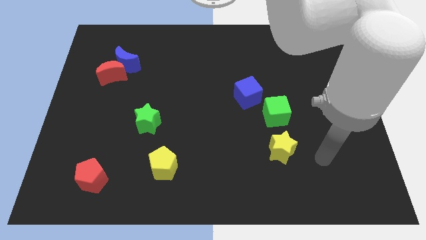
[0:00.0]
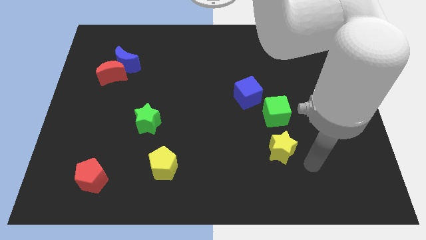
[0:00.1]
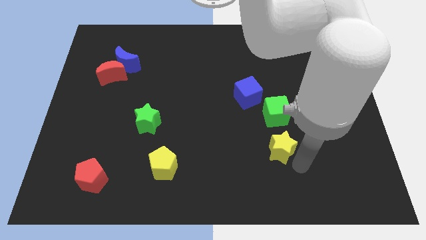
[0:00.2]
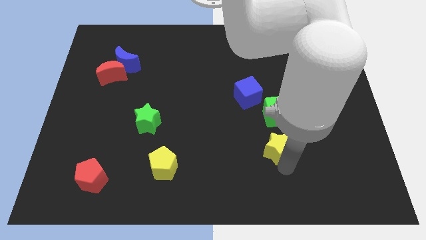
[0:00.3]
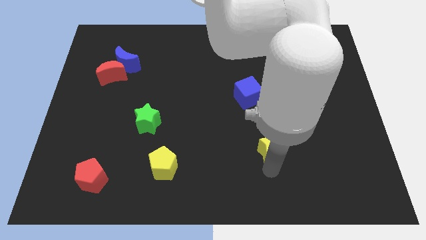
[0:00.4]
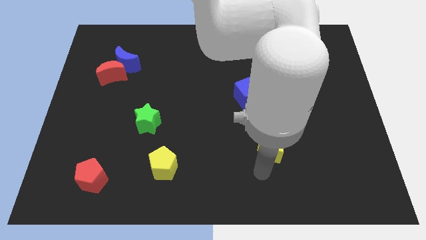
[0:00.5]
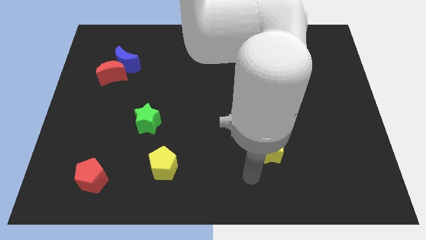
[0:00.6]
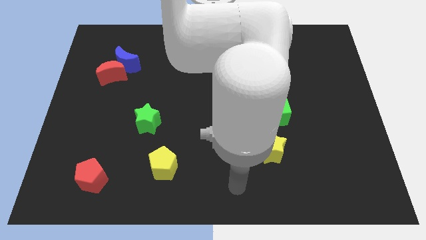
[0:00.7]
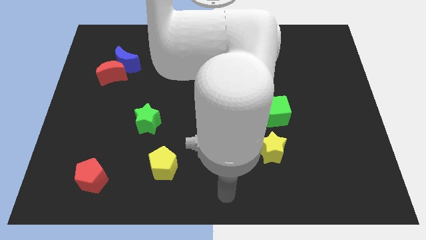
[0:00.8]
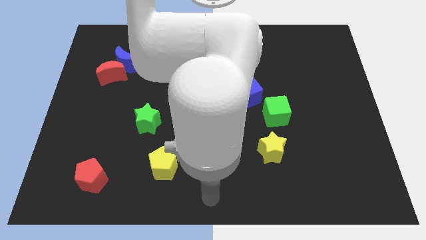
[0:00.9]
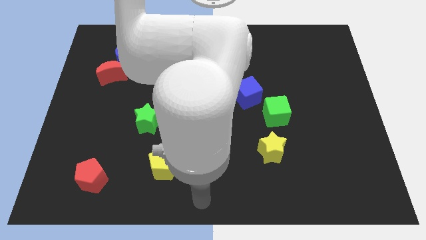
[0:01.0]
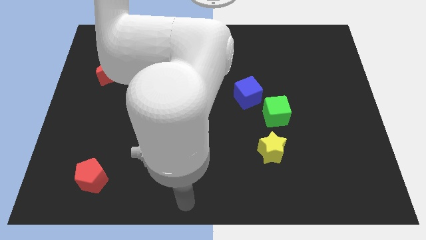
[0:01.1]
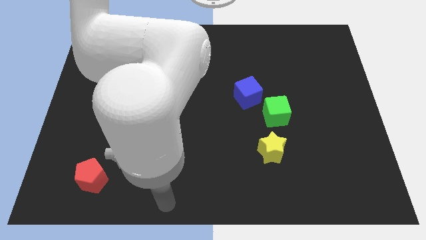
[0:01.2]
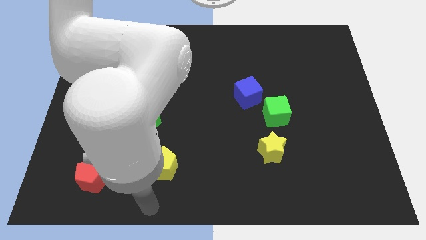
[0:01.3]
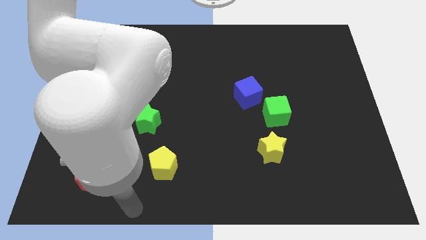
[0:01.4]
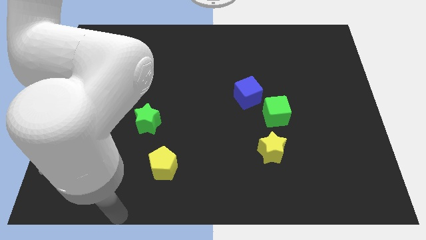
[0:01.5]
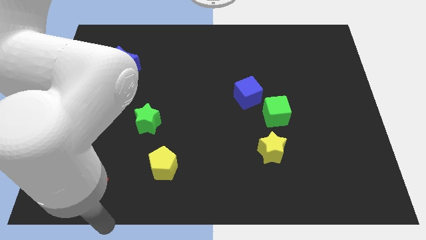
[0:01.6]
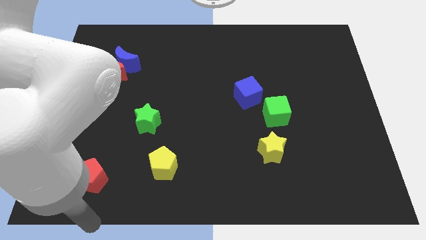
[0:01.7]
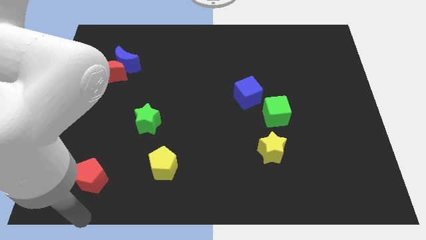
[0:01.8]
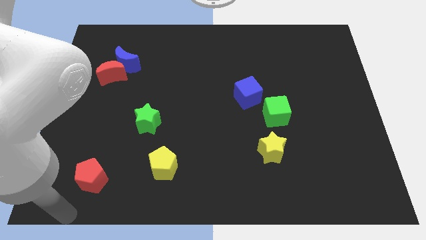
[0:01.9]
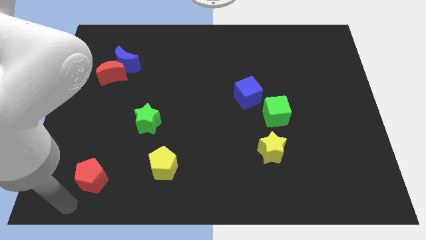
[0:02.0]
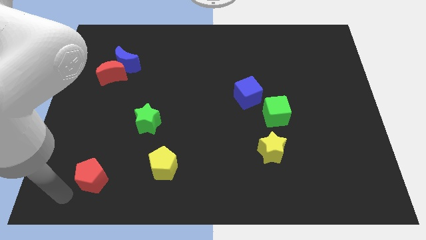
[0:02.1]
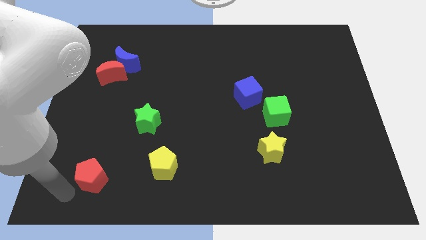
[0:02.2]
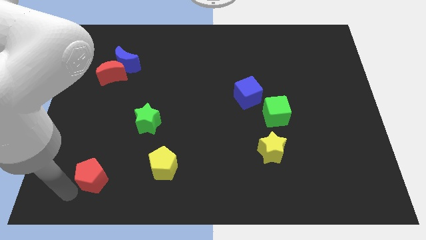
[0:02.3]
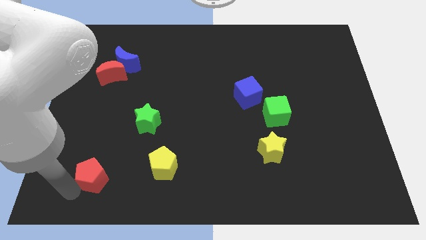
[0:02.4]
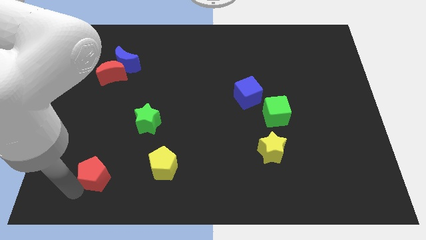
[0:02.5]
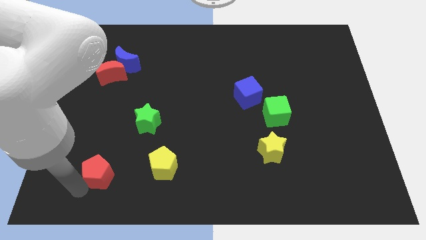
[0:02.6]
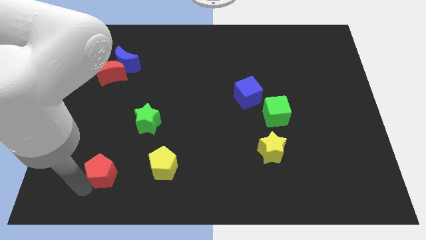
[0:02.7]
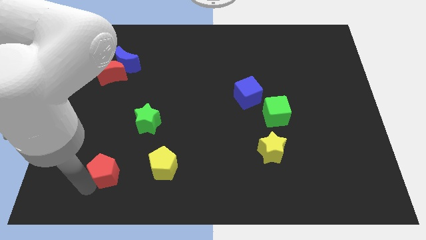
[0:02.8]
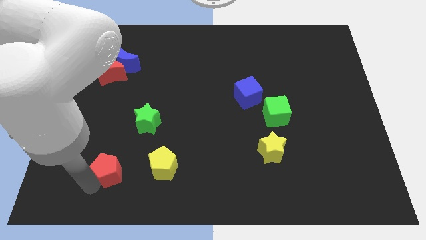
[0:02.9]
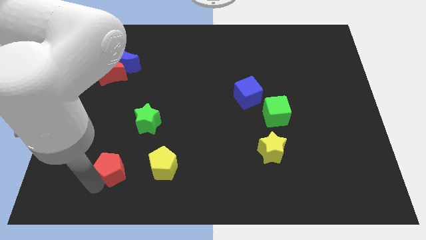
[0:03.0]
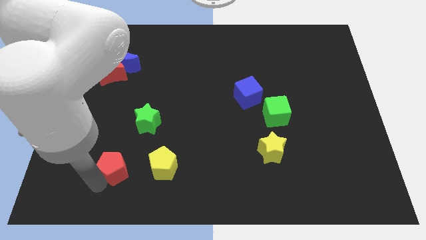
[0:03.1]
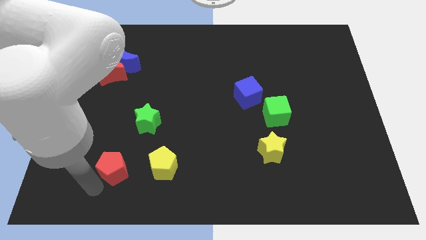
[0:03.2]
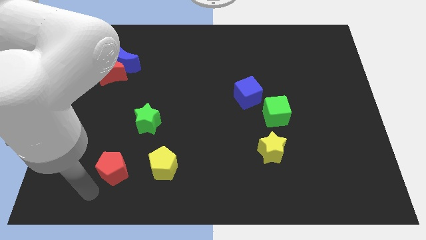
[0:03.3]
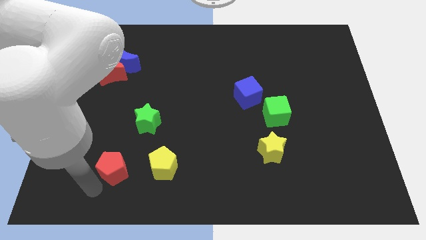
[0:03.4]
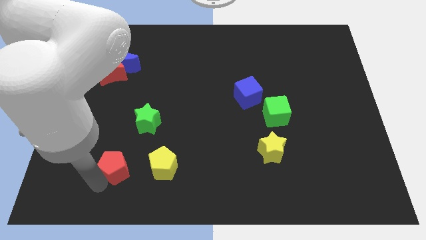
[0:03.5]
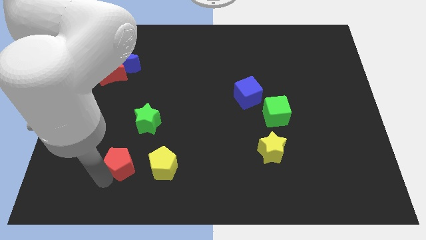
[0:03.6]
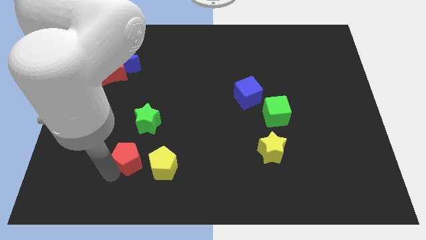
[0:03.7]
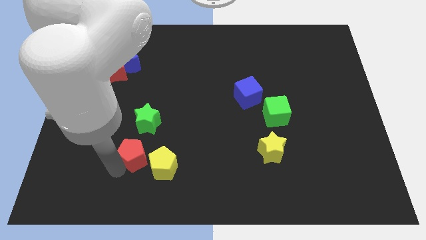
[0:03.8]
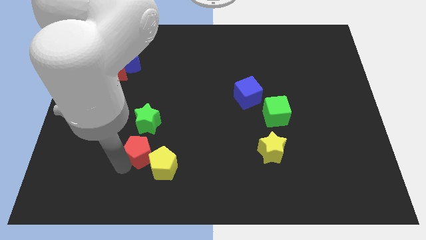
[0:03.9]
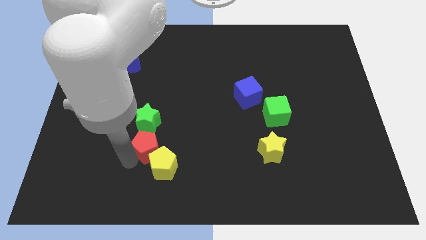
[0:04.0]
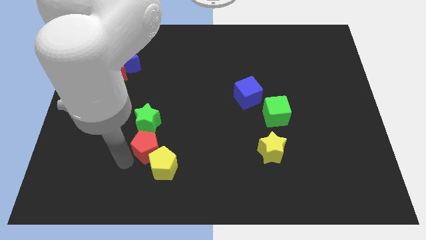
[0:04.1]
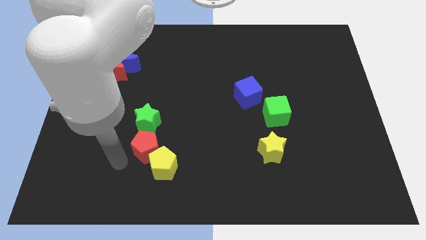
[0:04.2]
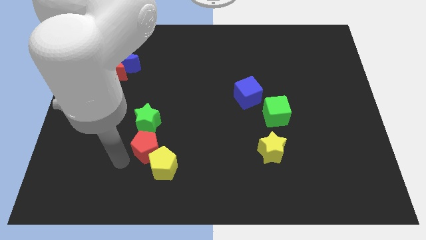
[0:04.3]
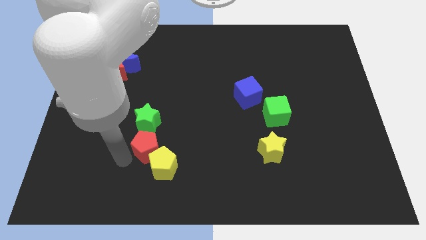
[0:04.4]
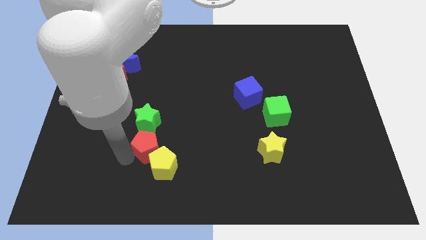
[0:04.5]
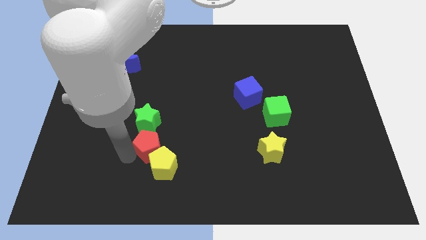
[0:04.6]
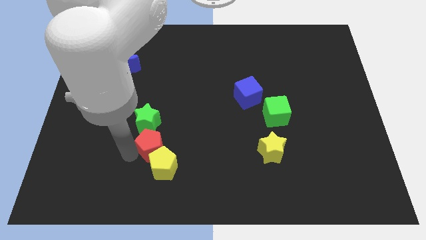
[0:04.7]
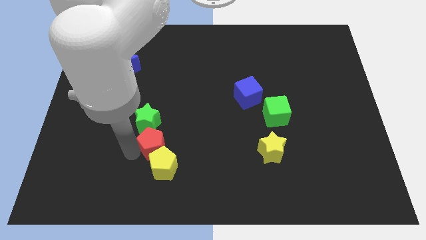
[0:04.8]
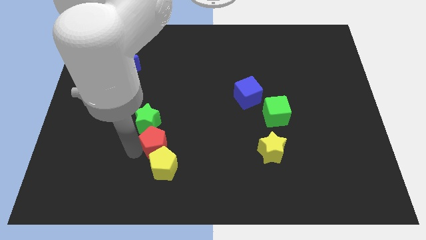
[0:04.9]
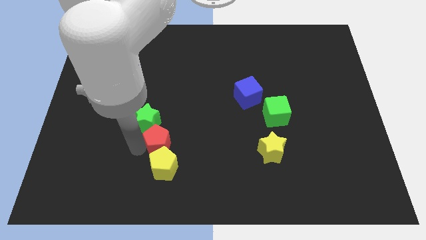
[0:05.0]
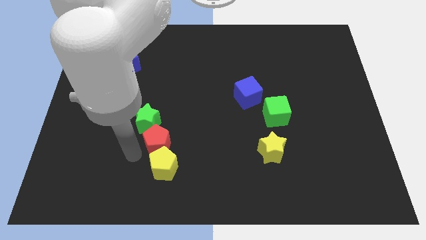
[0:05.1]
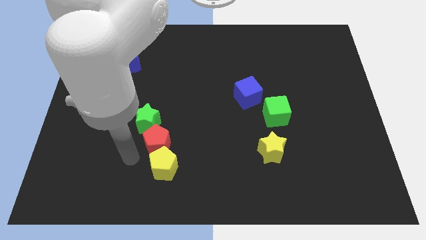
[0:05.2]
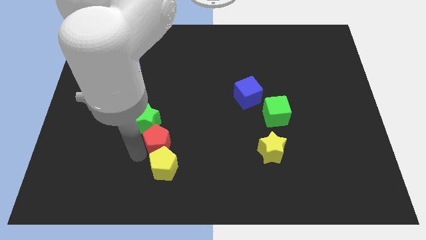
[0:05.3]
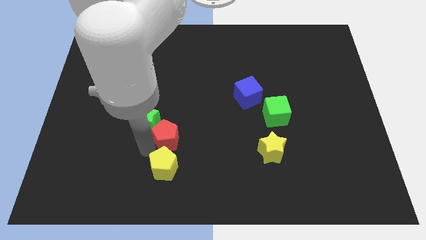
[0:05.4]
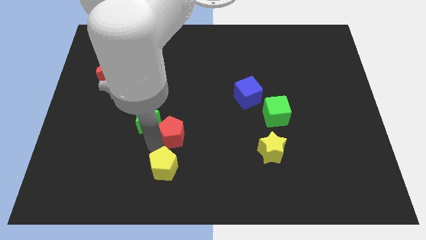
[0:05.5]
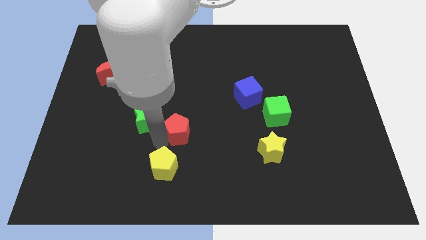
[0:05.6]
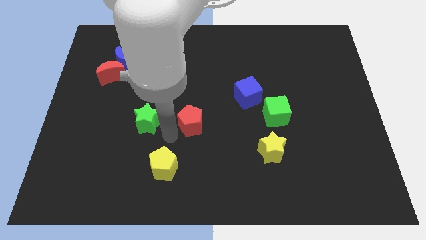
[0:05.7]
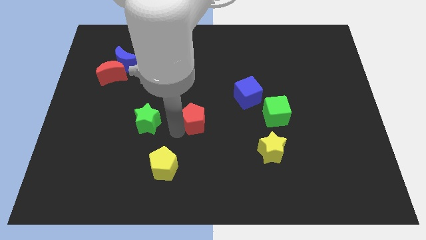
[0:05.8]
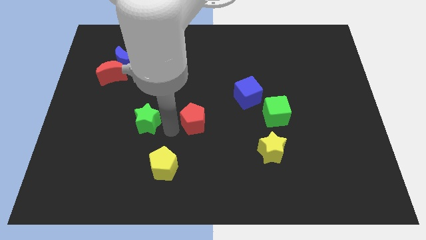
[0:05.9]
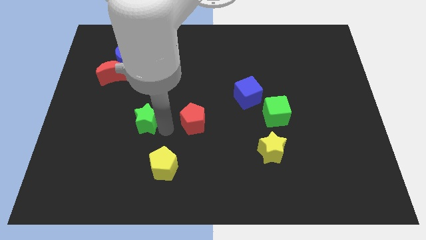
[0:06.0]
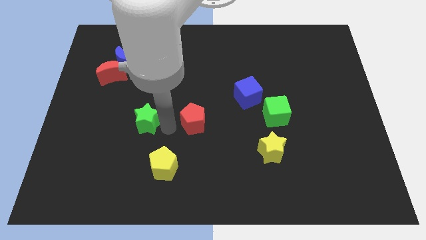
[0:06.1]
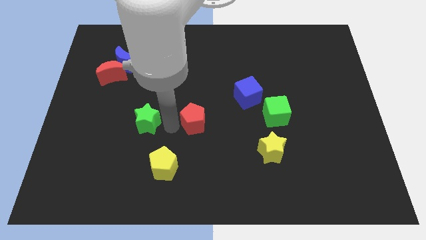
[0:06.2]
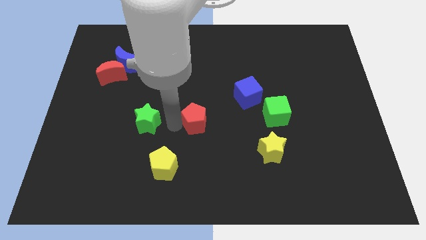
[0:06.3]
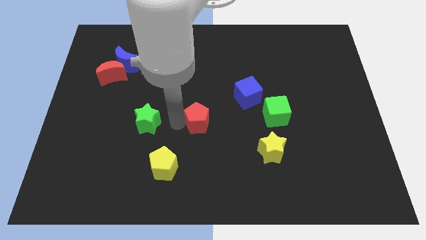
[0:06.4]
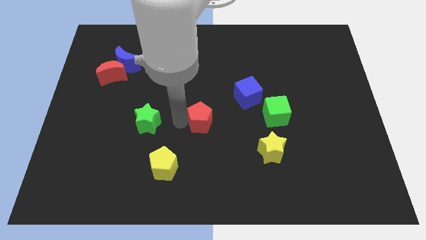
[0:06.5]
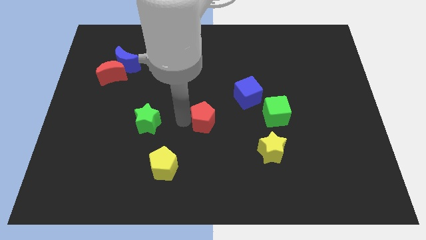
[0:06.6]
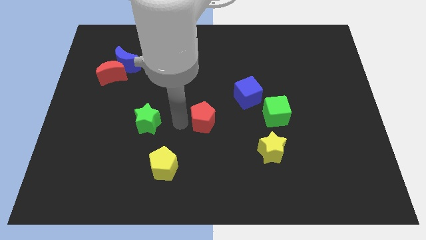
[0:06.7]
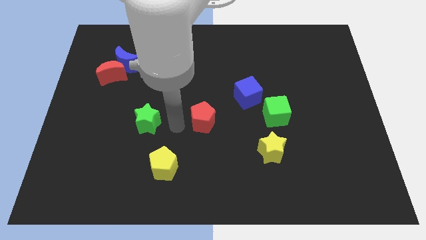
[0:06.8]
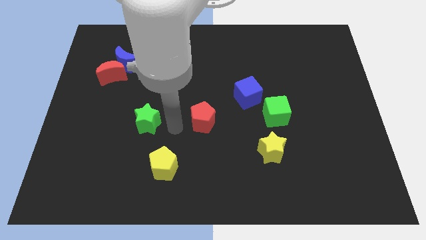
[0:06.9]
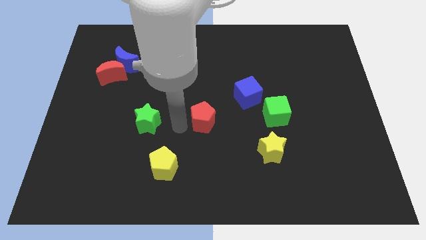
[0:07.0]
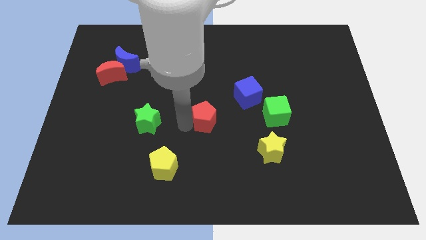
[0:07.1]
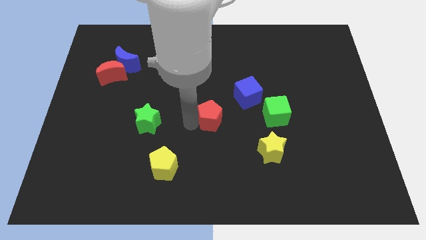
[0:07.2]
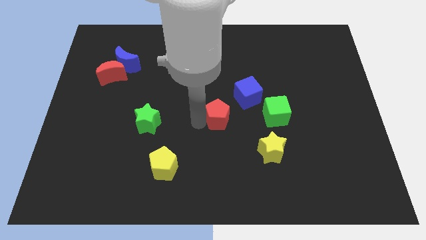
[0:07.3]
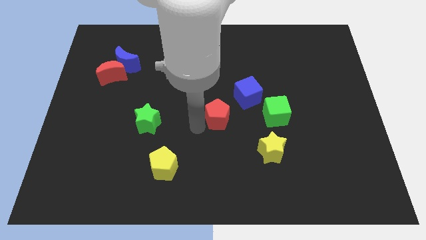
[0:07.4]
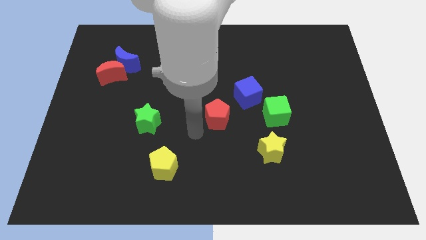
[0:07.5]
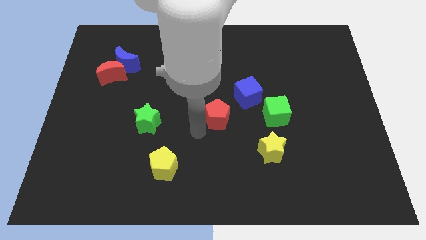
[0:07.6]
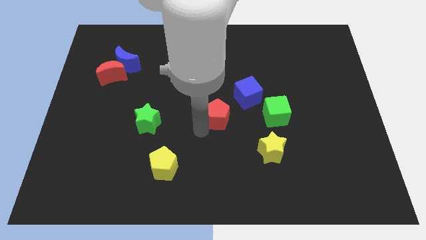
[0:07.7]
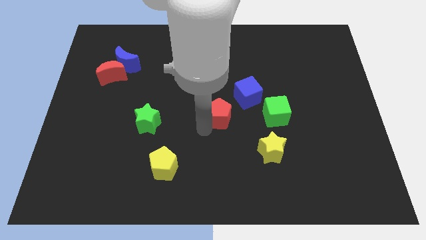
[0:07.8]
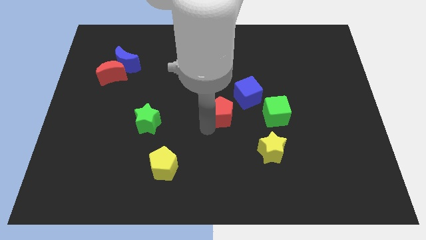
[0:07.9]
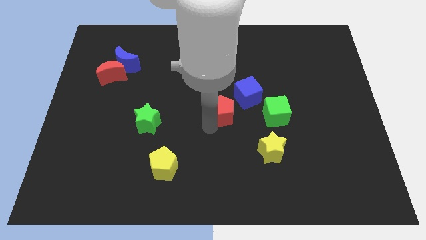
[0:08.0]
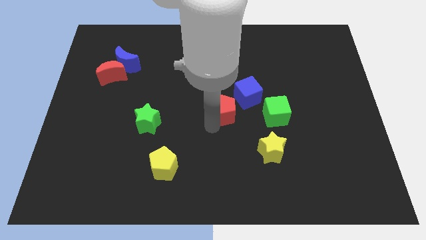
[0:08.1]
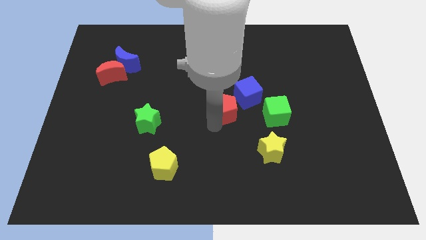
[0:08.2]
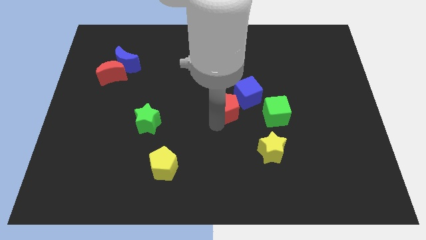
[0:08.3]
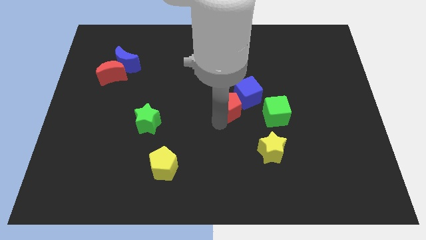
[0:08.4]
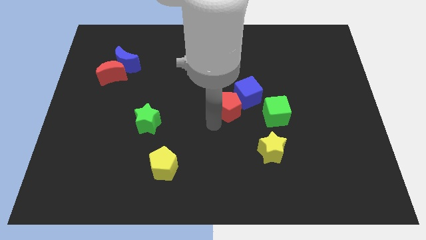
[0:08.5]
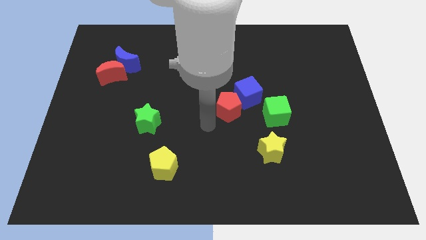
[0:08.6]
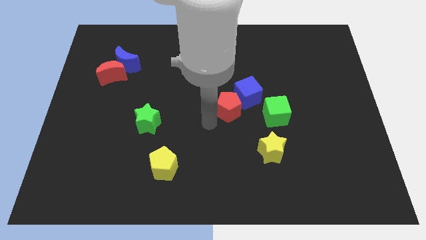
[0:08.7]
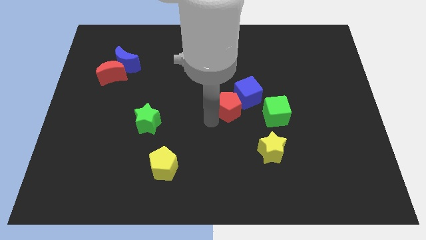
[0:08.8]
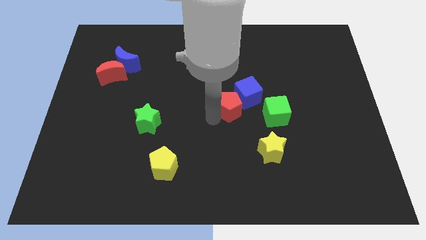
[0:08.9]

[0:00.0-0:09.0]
move the red pentagon next to the blue cube
